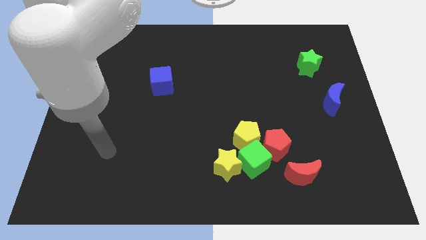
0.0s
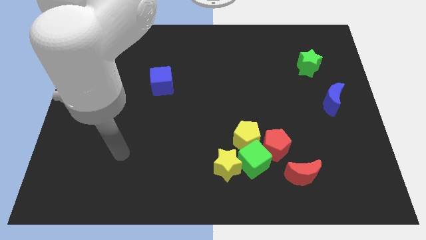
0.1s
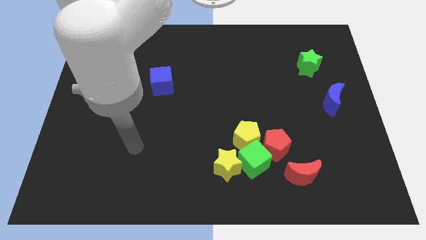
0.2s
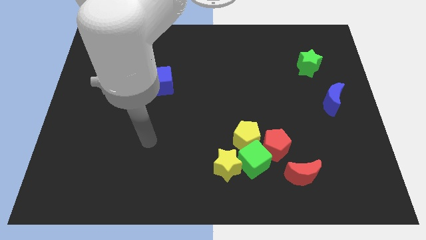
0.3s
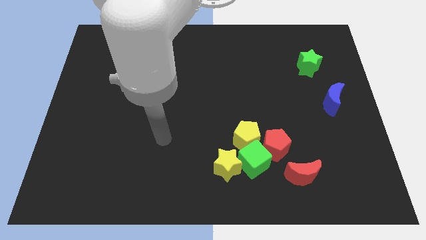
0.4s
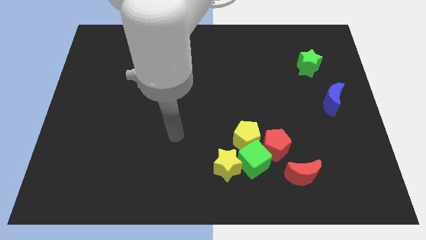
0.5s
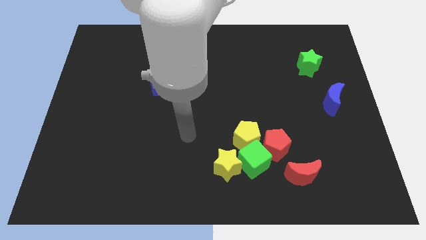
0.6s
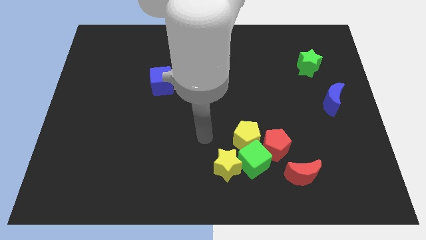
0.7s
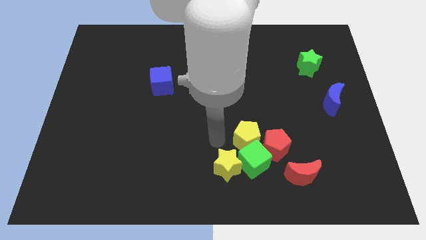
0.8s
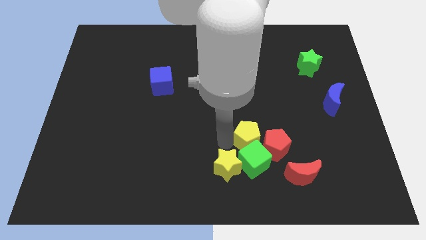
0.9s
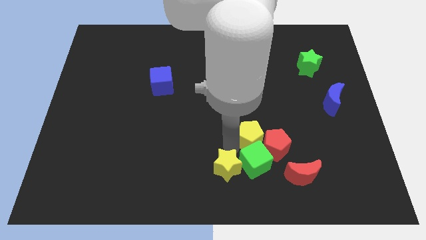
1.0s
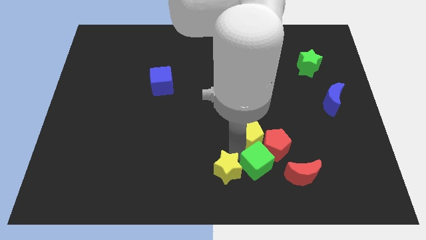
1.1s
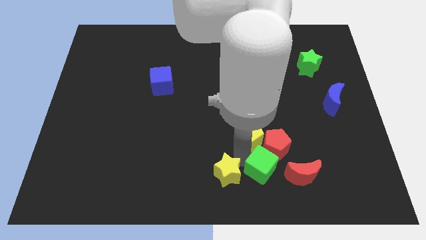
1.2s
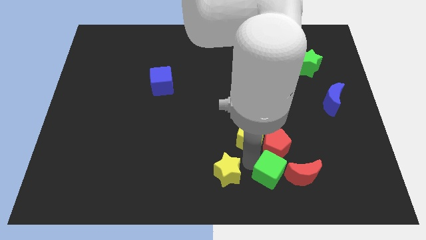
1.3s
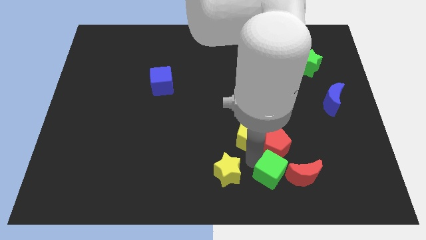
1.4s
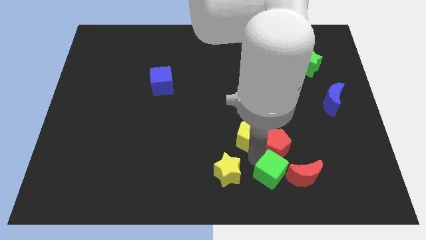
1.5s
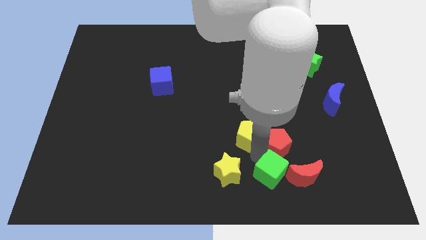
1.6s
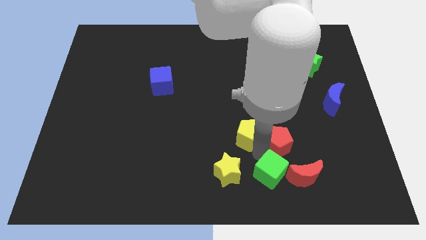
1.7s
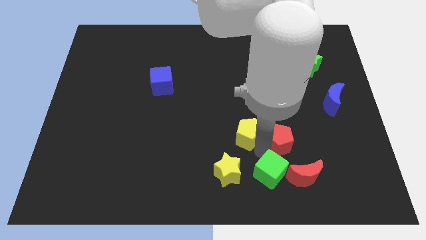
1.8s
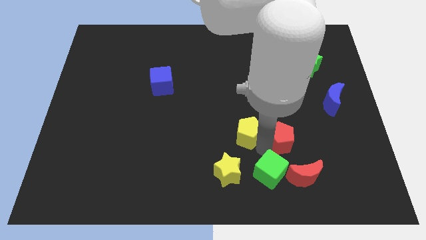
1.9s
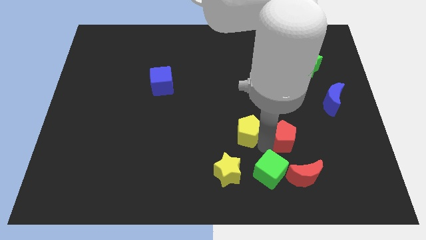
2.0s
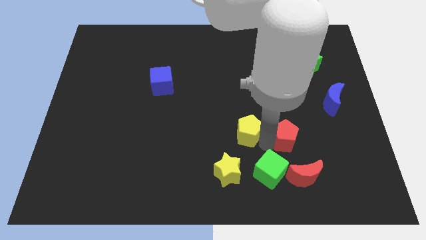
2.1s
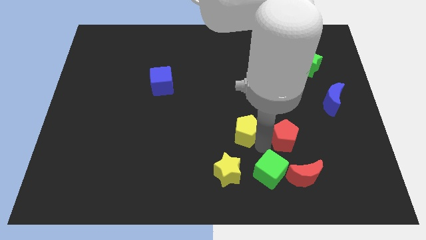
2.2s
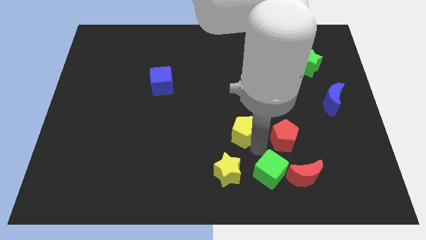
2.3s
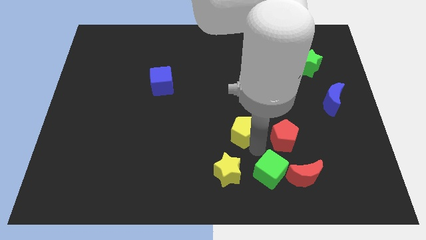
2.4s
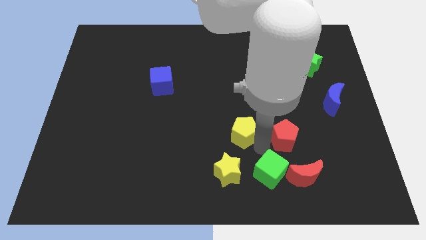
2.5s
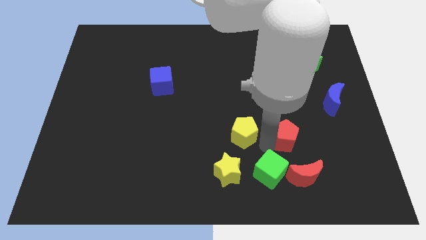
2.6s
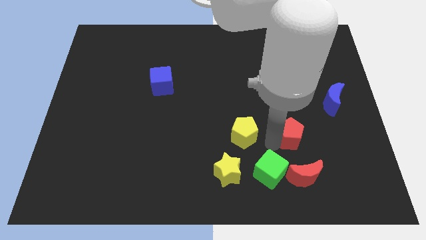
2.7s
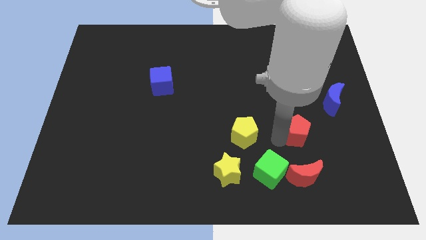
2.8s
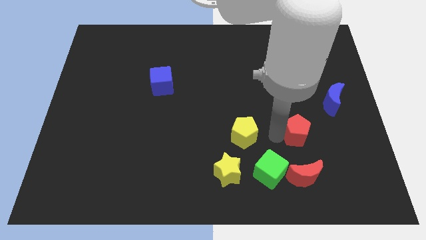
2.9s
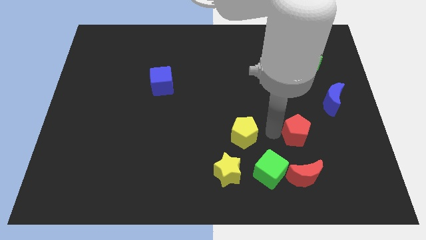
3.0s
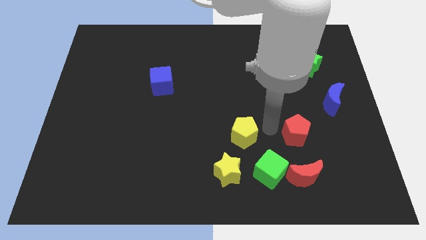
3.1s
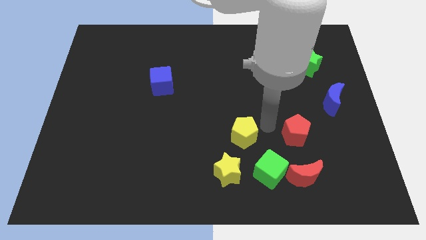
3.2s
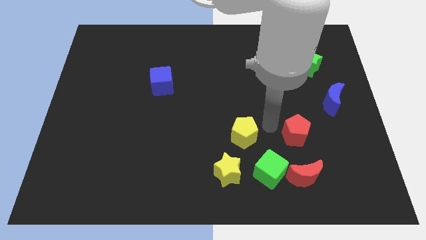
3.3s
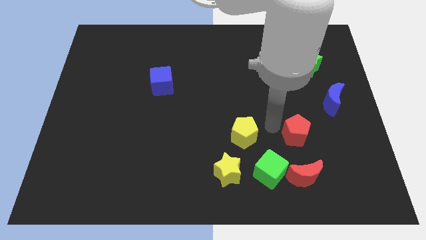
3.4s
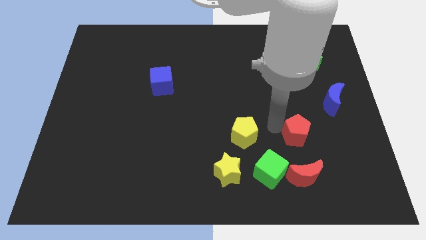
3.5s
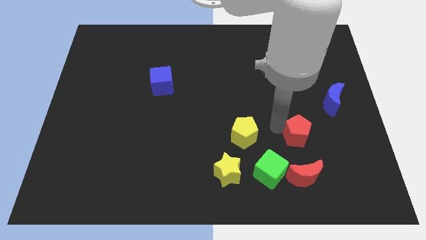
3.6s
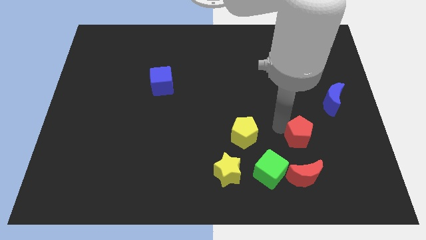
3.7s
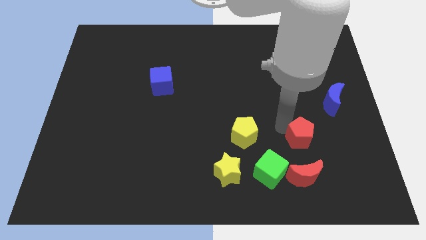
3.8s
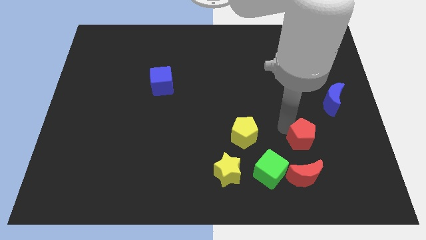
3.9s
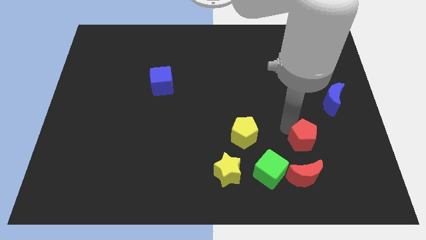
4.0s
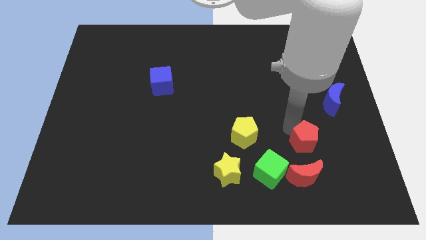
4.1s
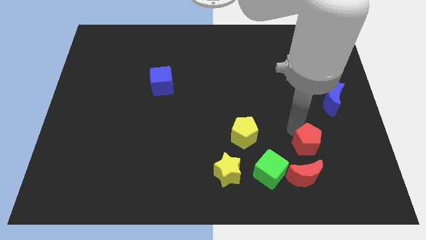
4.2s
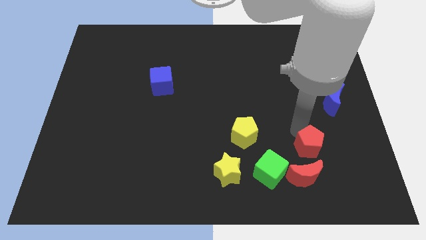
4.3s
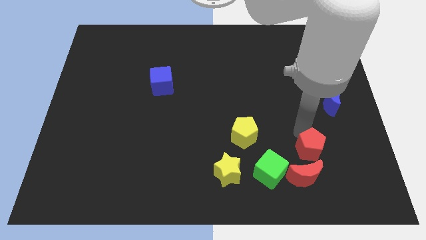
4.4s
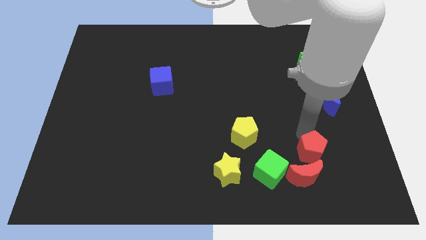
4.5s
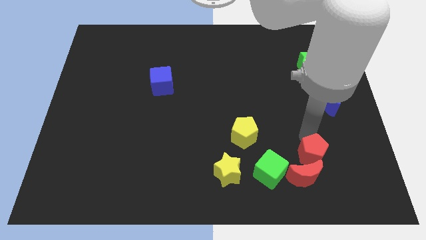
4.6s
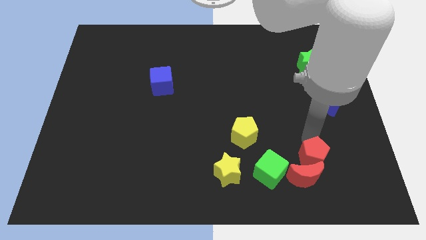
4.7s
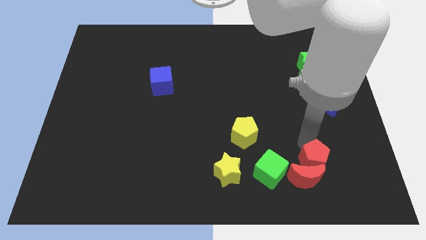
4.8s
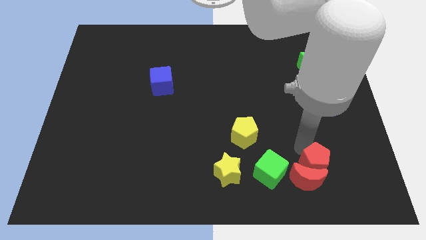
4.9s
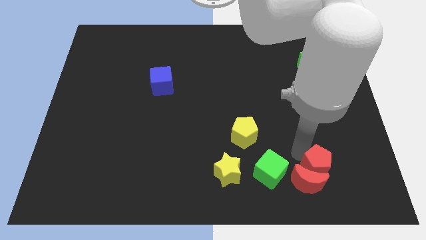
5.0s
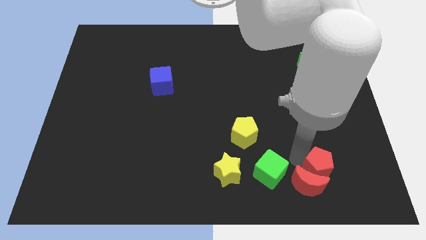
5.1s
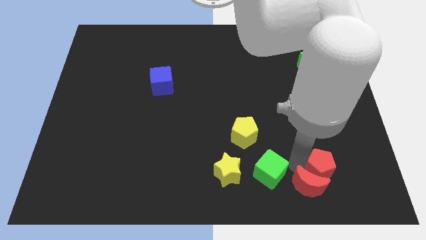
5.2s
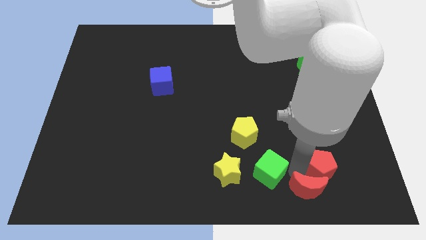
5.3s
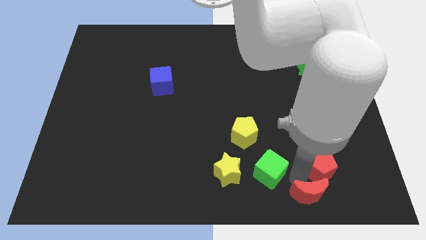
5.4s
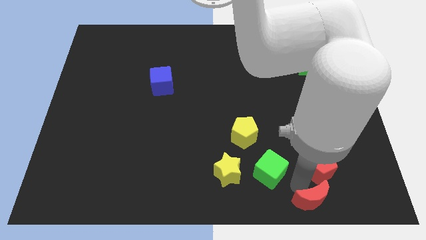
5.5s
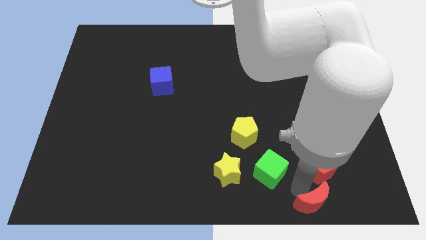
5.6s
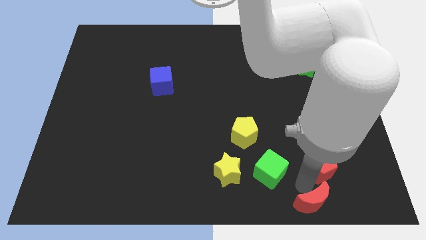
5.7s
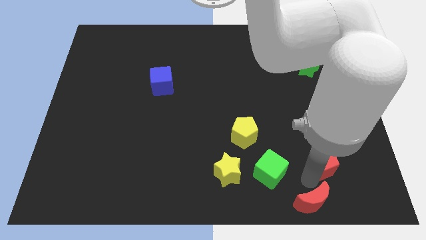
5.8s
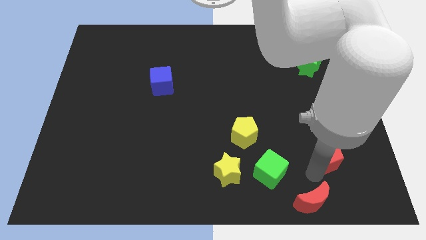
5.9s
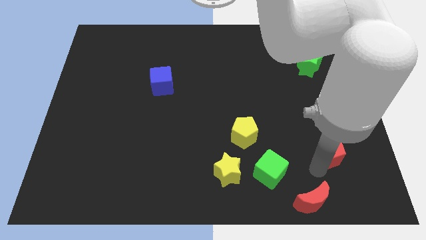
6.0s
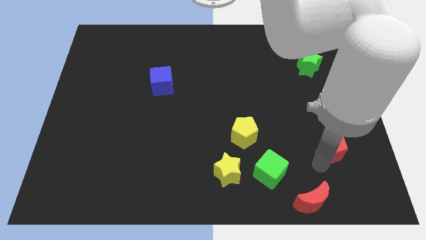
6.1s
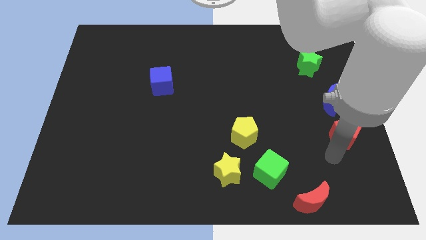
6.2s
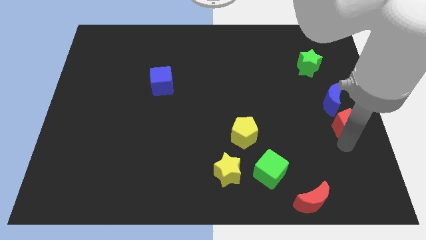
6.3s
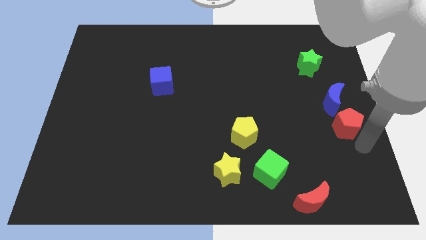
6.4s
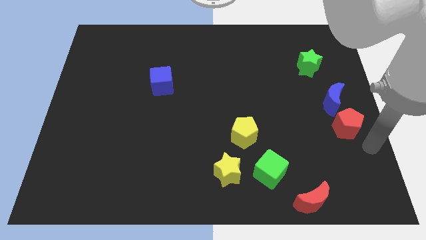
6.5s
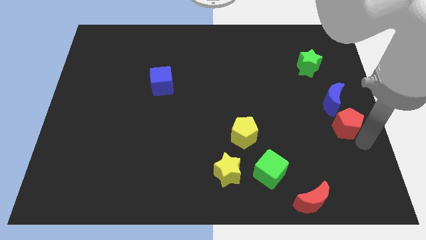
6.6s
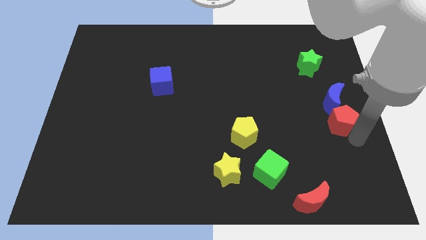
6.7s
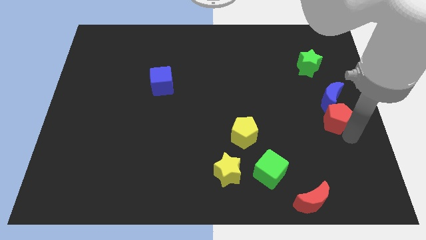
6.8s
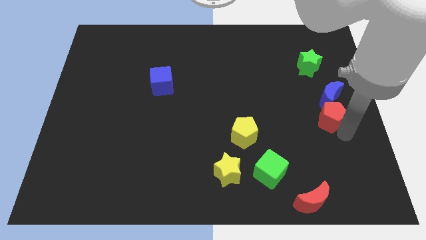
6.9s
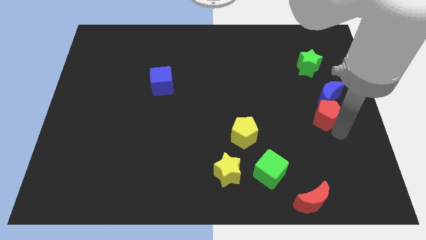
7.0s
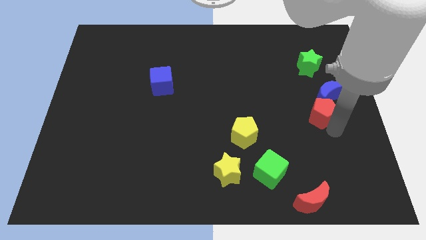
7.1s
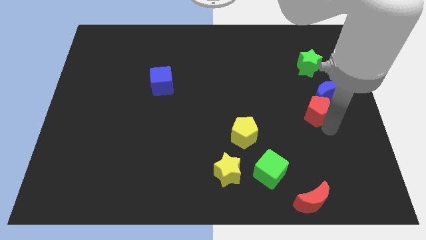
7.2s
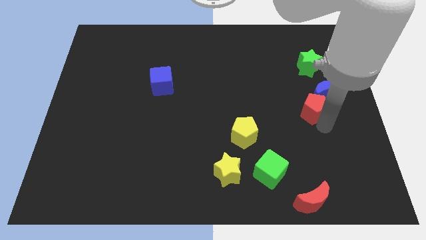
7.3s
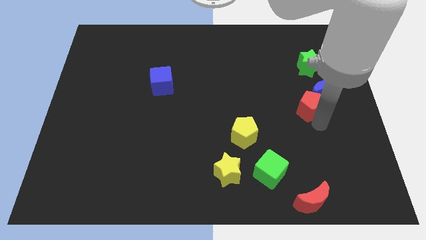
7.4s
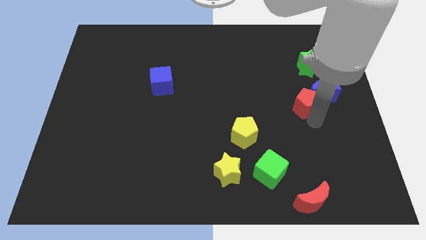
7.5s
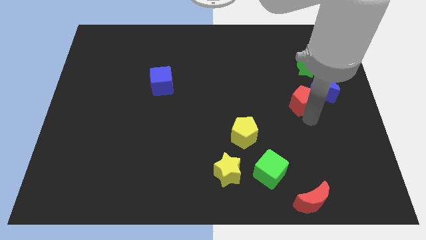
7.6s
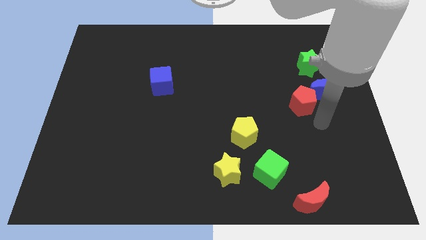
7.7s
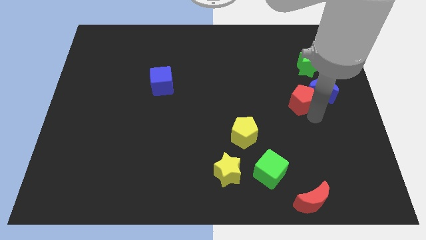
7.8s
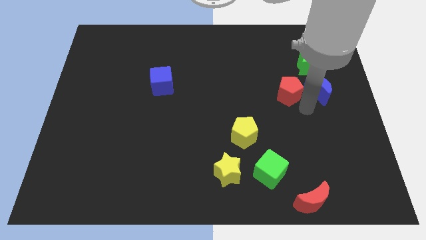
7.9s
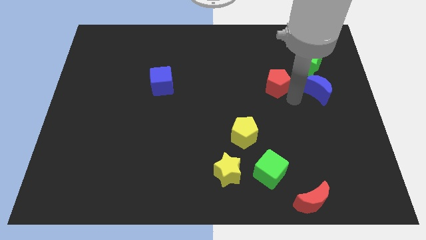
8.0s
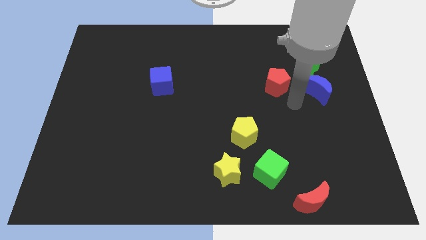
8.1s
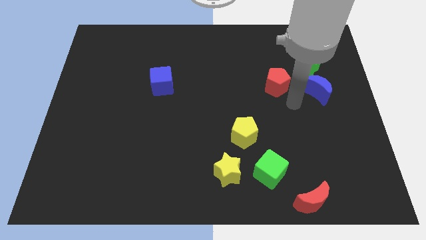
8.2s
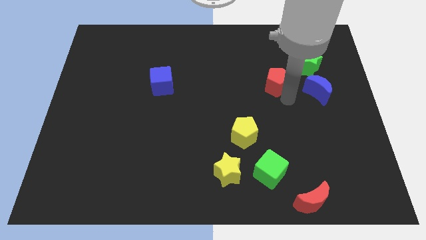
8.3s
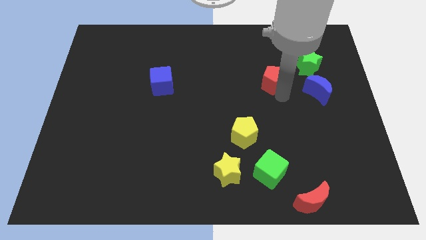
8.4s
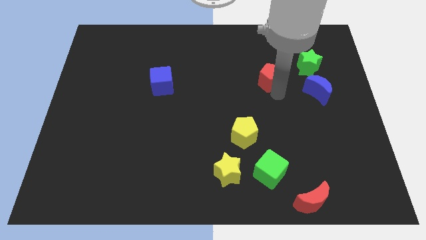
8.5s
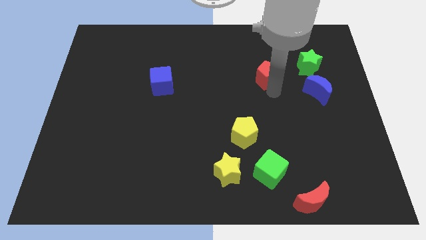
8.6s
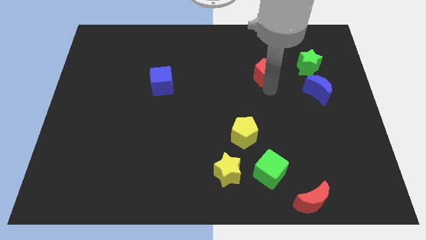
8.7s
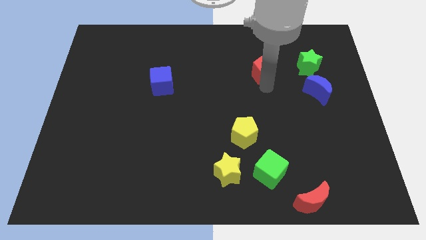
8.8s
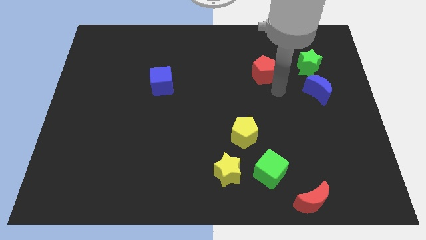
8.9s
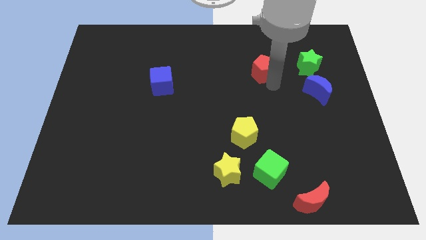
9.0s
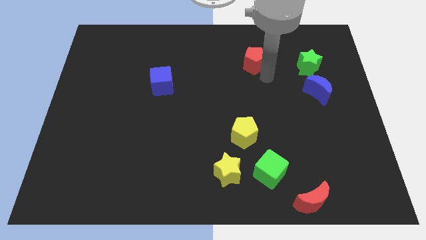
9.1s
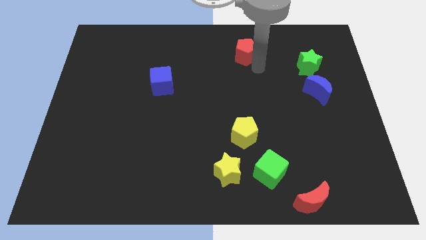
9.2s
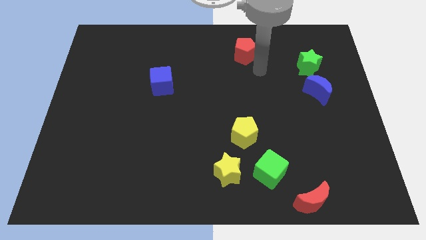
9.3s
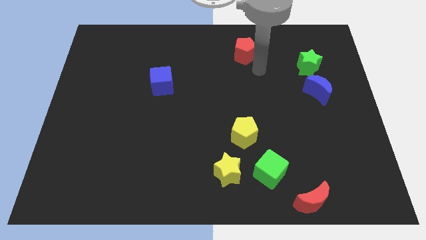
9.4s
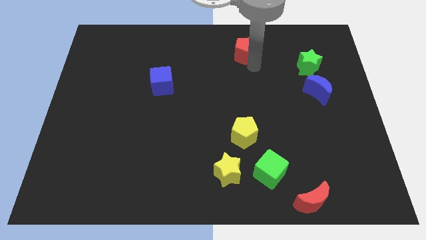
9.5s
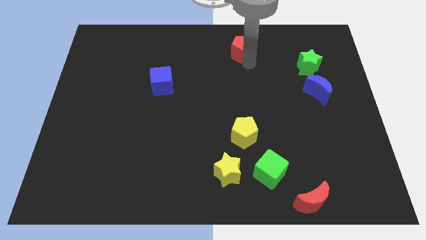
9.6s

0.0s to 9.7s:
put the red pentagon to the towards your base
